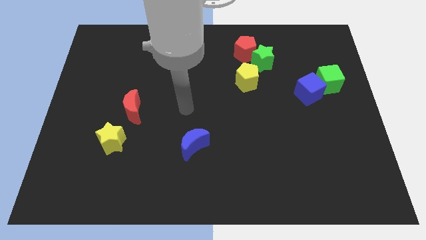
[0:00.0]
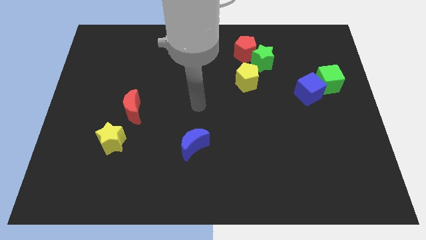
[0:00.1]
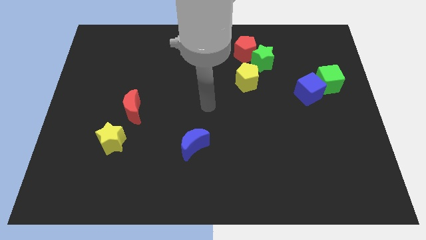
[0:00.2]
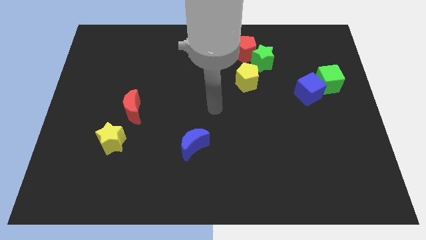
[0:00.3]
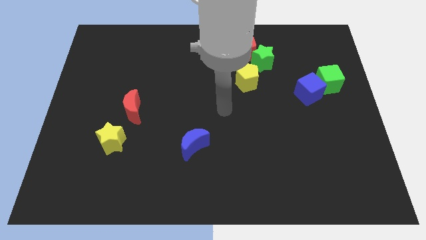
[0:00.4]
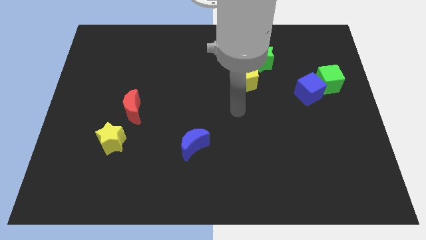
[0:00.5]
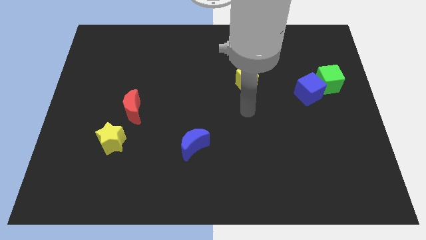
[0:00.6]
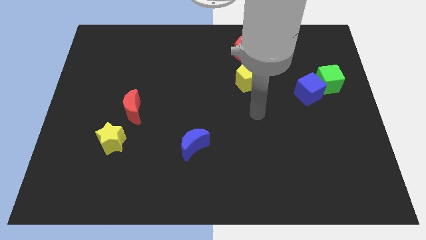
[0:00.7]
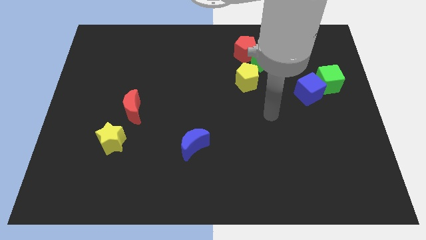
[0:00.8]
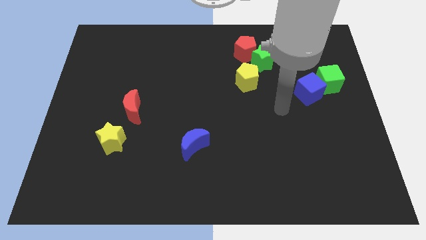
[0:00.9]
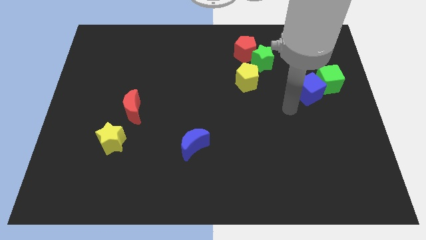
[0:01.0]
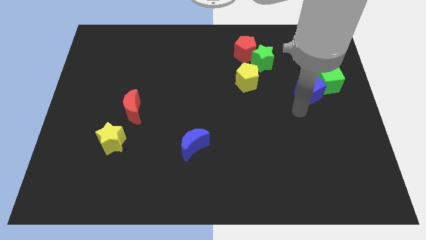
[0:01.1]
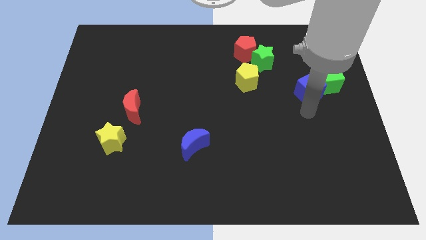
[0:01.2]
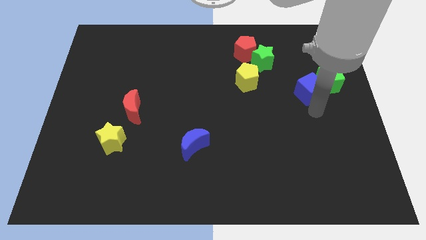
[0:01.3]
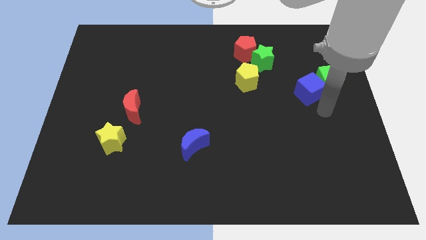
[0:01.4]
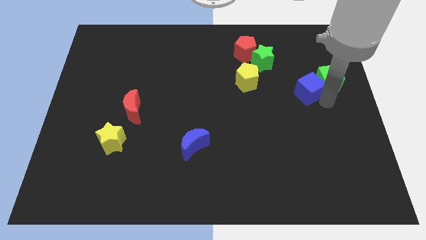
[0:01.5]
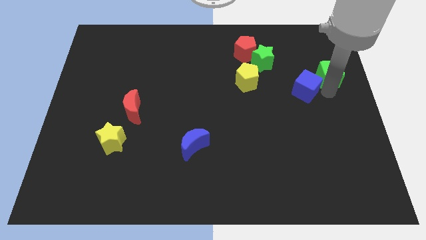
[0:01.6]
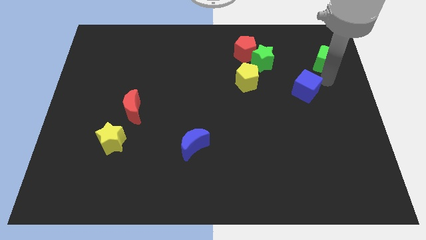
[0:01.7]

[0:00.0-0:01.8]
pull the blue cube apart from the green cube

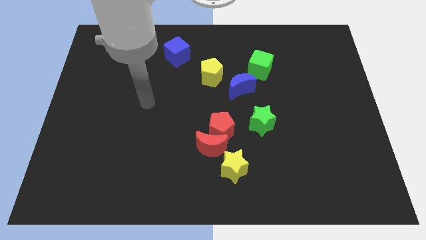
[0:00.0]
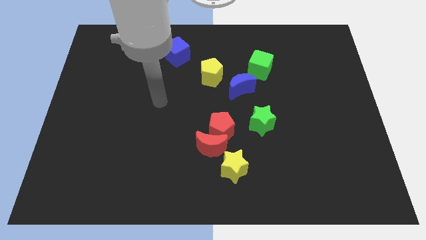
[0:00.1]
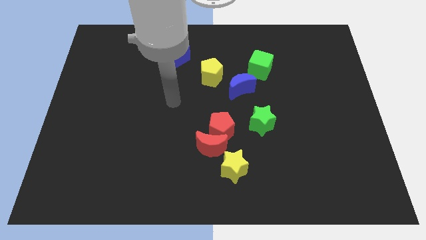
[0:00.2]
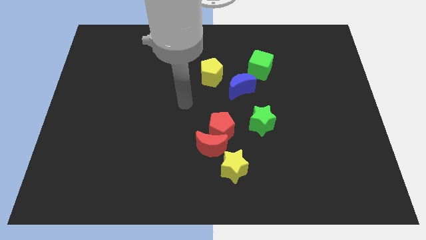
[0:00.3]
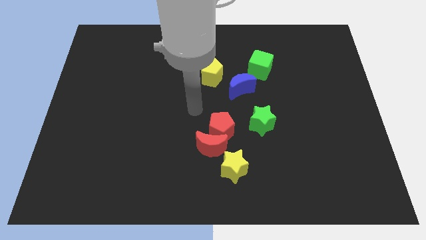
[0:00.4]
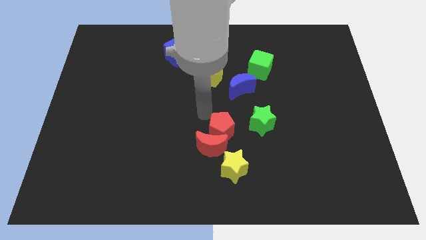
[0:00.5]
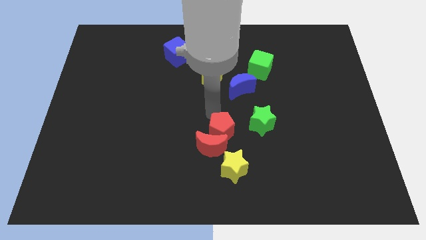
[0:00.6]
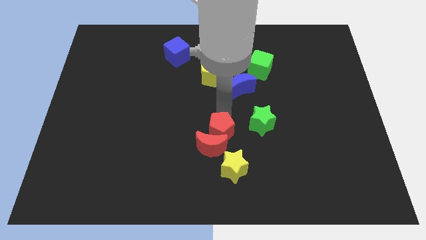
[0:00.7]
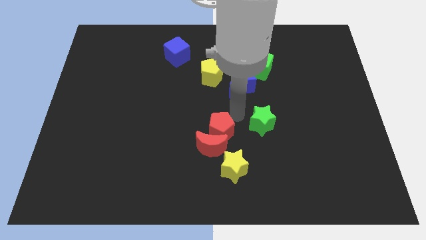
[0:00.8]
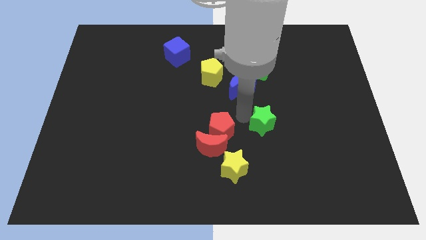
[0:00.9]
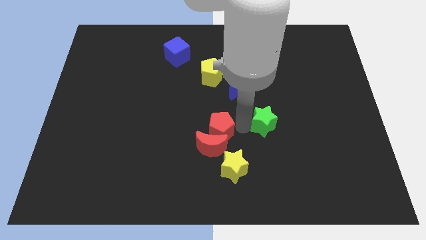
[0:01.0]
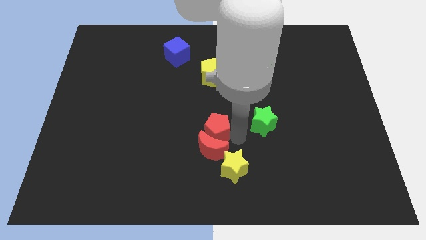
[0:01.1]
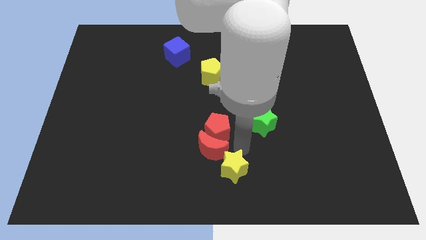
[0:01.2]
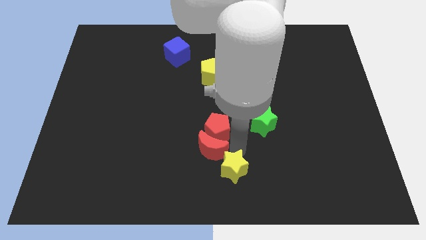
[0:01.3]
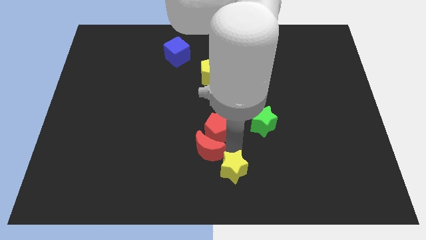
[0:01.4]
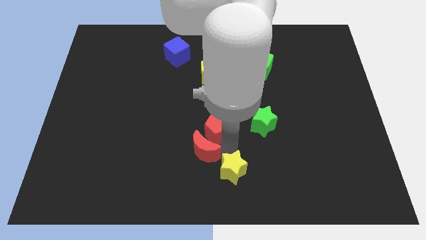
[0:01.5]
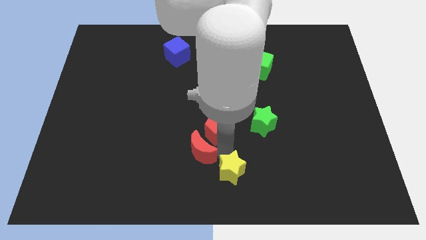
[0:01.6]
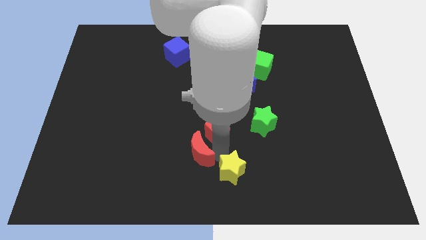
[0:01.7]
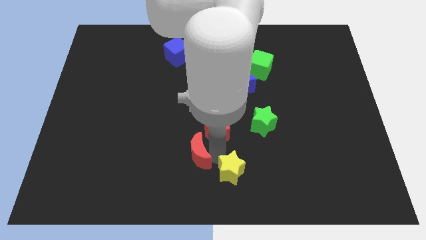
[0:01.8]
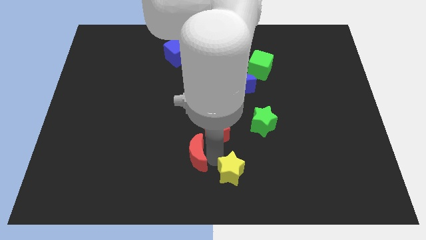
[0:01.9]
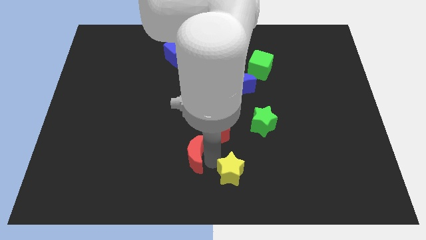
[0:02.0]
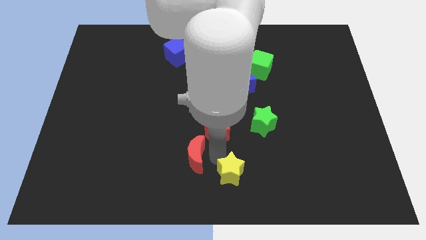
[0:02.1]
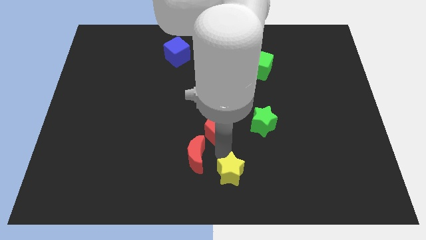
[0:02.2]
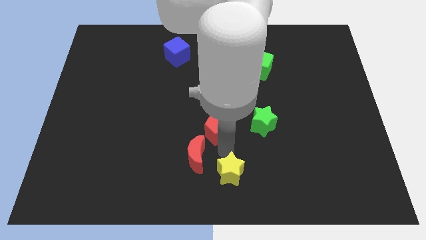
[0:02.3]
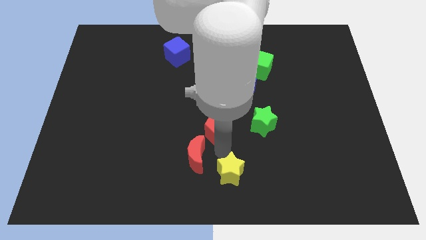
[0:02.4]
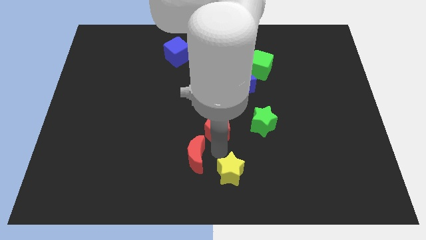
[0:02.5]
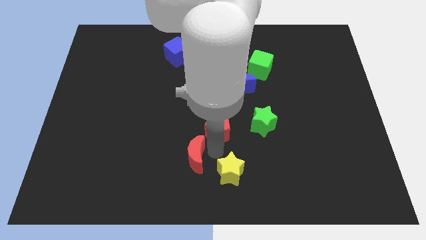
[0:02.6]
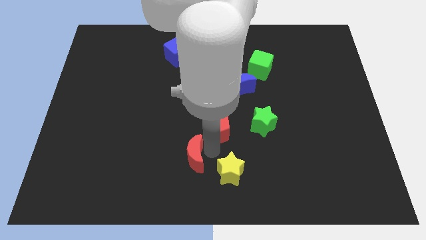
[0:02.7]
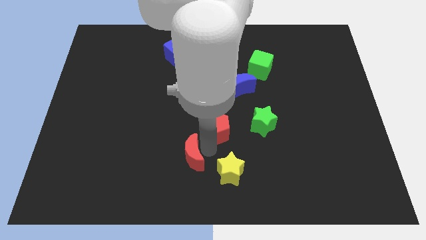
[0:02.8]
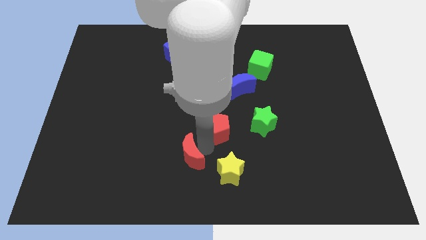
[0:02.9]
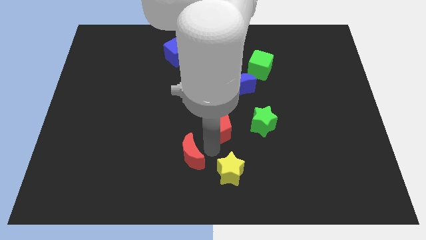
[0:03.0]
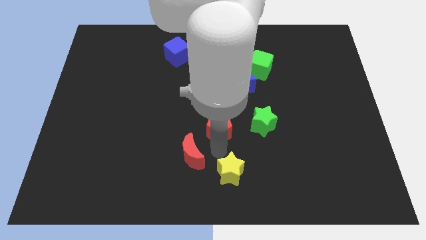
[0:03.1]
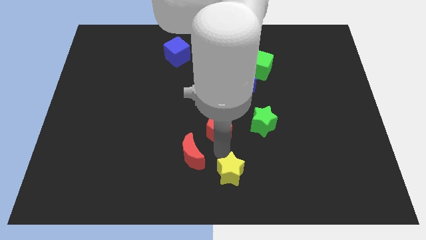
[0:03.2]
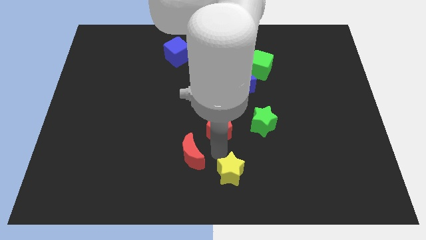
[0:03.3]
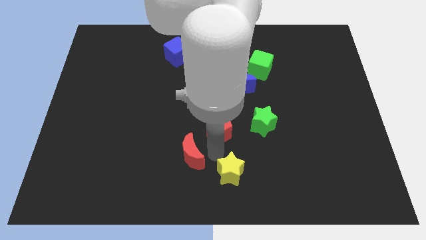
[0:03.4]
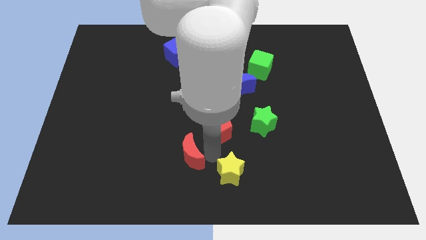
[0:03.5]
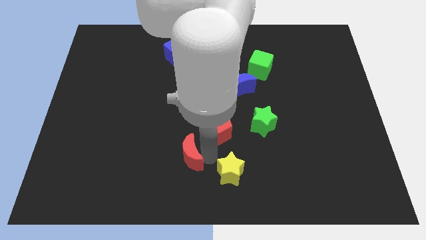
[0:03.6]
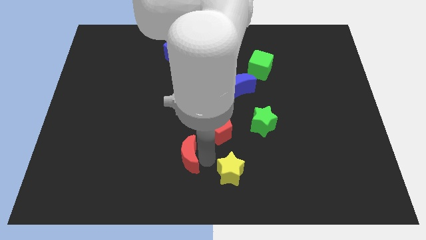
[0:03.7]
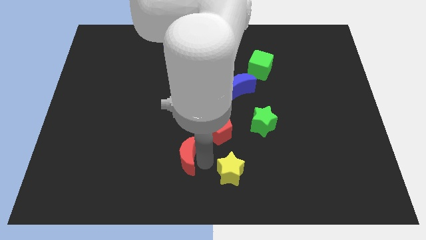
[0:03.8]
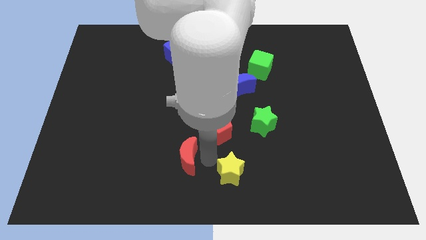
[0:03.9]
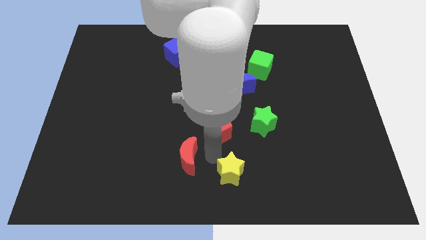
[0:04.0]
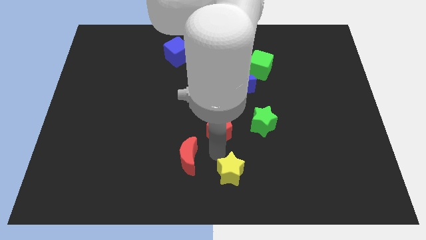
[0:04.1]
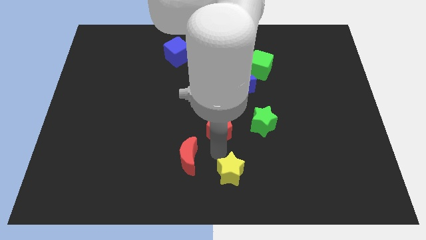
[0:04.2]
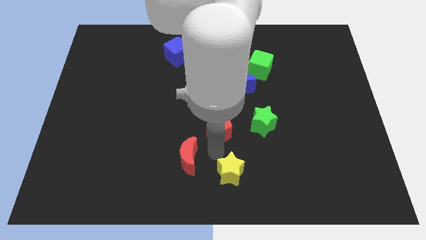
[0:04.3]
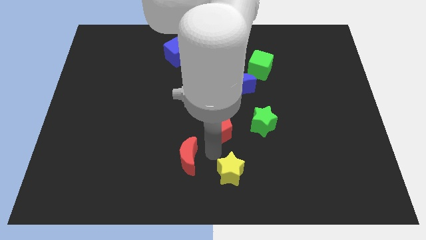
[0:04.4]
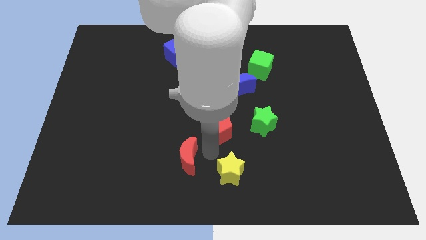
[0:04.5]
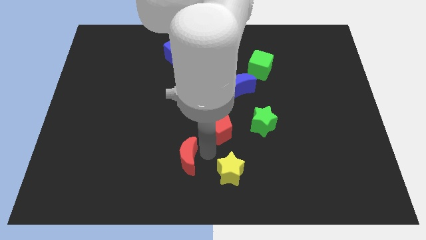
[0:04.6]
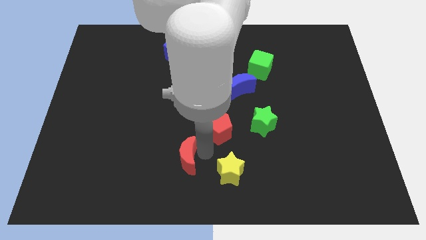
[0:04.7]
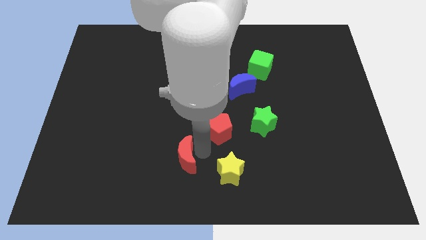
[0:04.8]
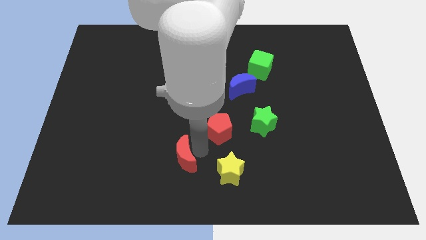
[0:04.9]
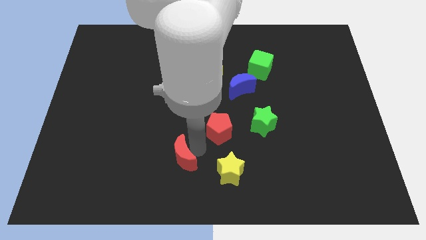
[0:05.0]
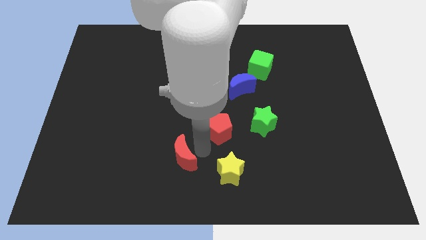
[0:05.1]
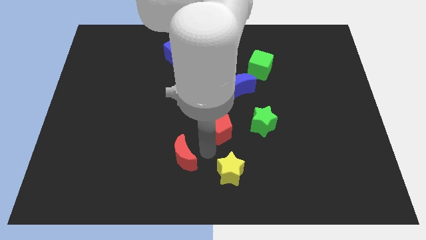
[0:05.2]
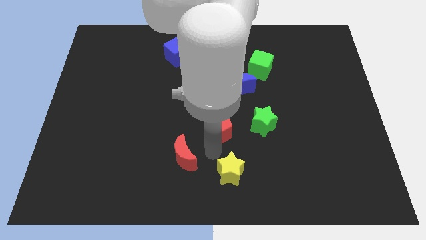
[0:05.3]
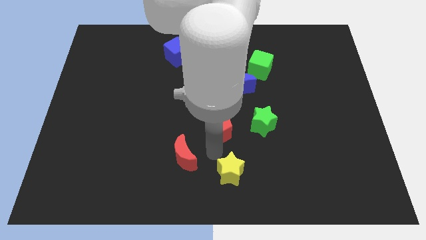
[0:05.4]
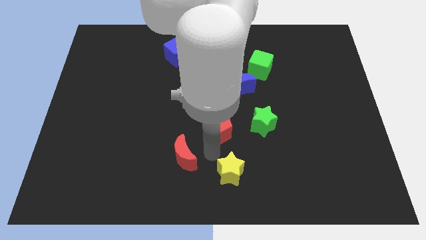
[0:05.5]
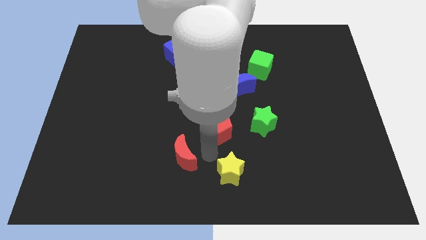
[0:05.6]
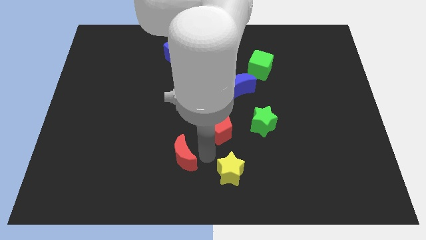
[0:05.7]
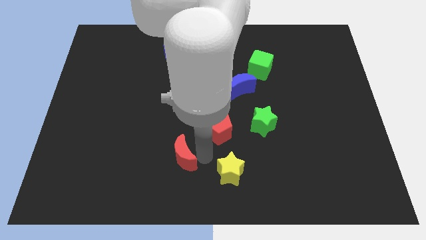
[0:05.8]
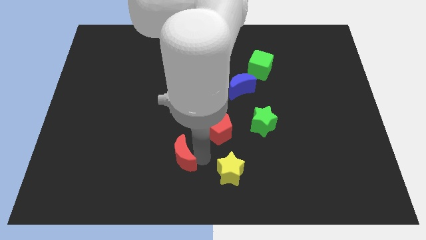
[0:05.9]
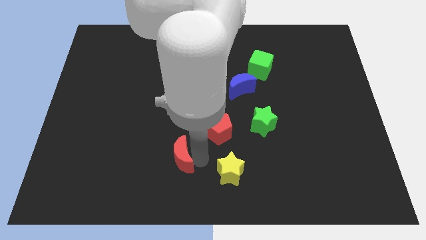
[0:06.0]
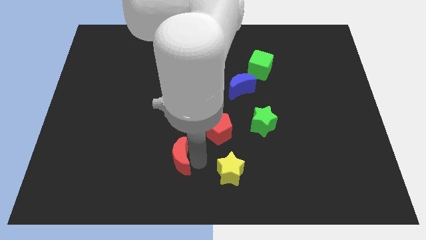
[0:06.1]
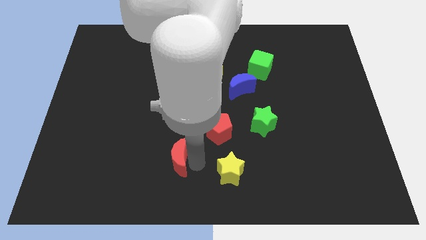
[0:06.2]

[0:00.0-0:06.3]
move the red moon away from the red pentagon and yellow star

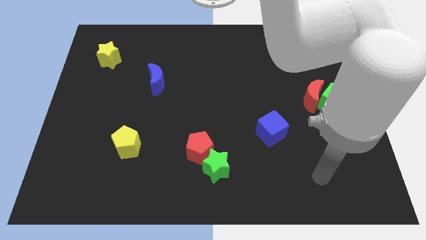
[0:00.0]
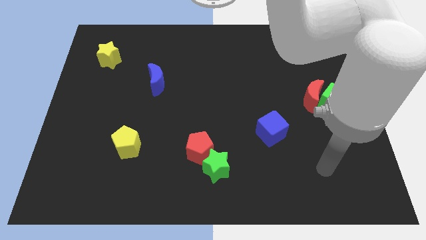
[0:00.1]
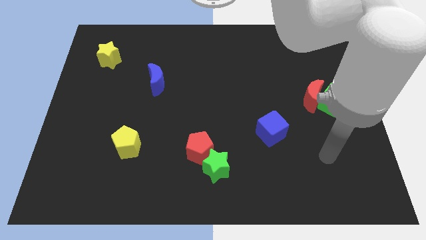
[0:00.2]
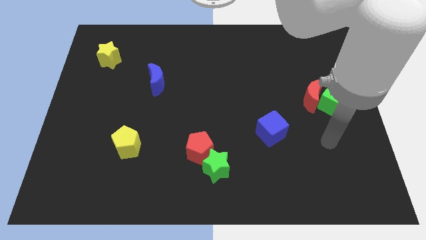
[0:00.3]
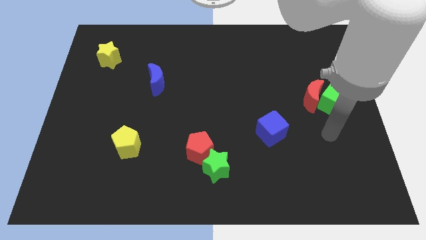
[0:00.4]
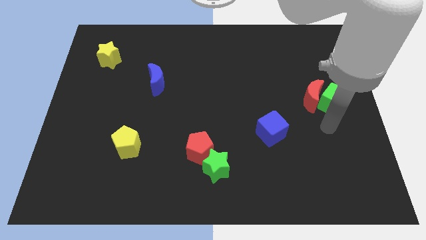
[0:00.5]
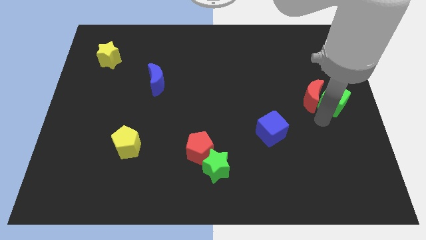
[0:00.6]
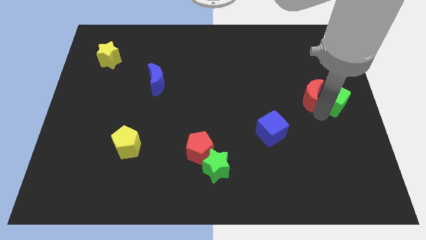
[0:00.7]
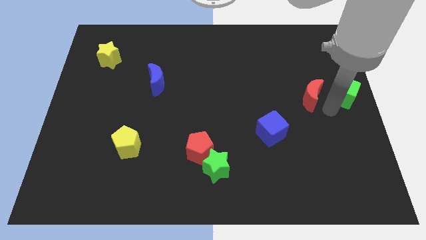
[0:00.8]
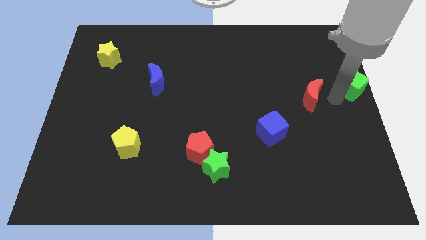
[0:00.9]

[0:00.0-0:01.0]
move the red moon away from the green cube

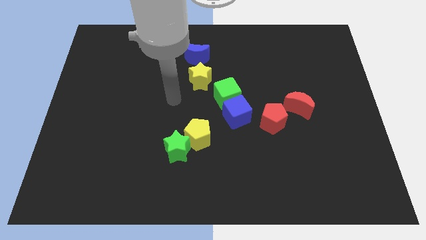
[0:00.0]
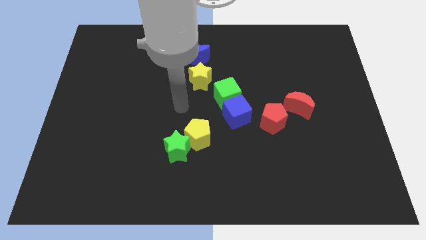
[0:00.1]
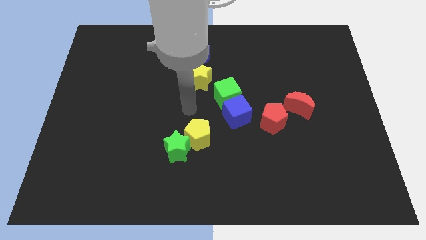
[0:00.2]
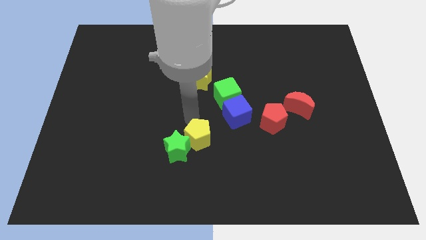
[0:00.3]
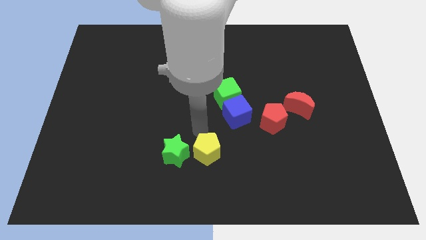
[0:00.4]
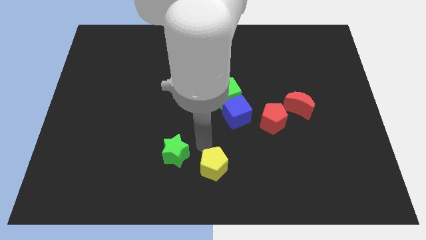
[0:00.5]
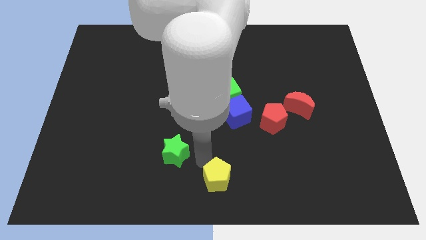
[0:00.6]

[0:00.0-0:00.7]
move the green star away from the yellow pentagon
